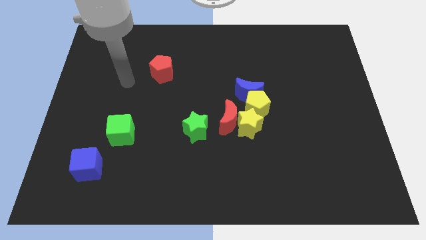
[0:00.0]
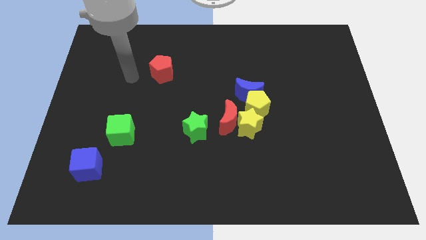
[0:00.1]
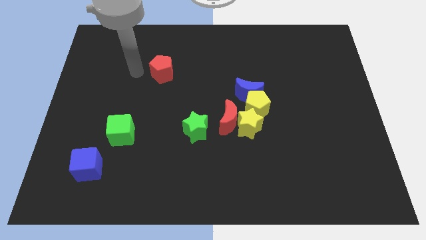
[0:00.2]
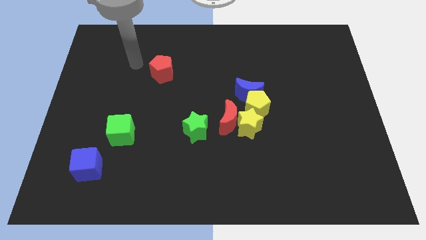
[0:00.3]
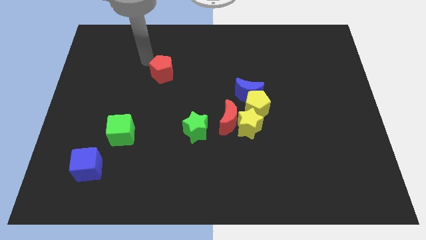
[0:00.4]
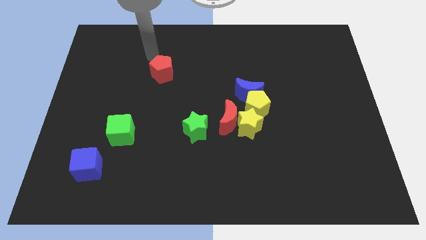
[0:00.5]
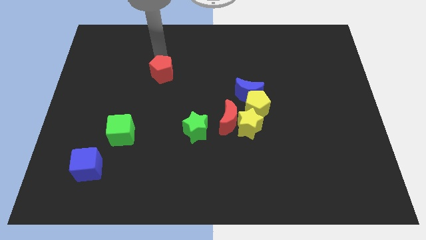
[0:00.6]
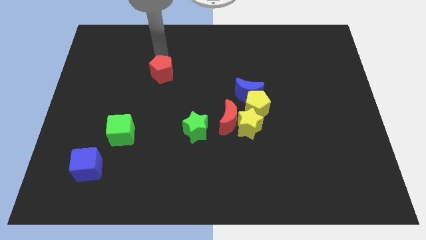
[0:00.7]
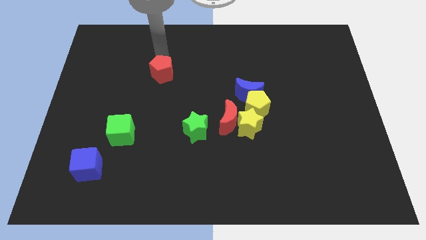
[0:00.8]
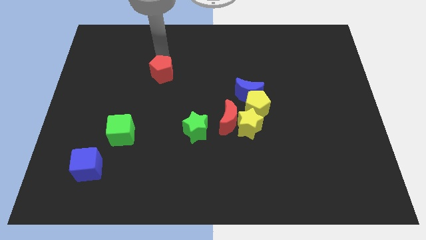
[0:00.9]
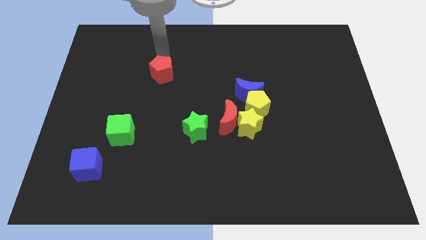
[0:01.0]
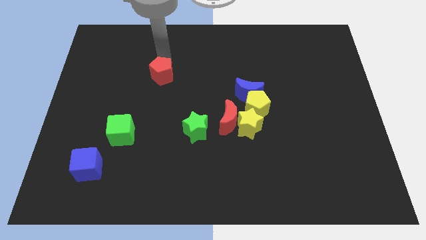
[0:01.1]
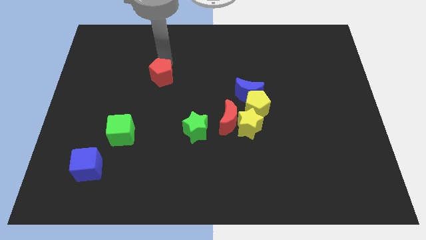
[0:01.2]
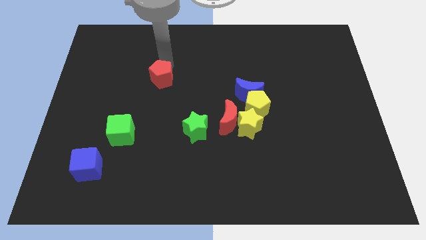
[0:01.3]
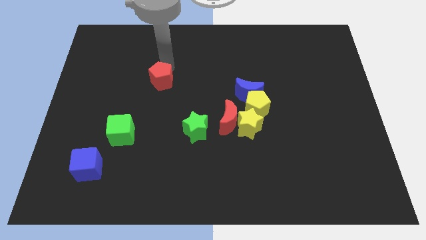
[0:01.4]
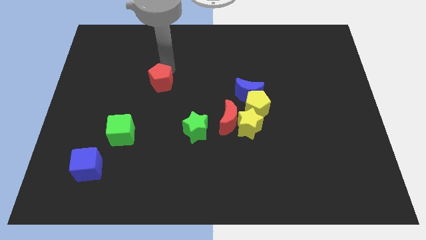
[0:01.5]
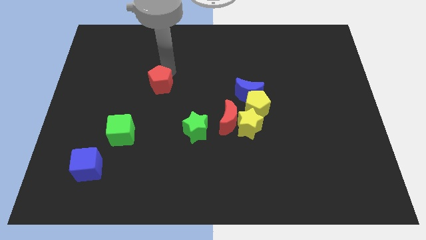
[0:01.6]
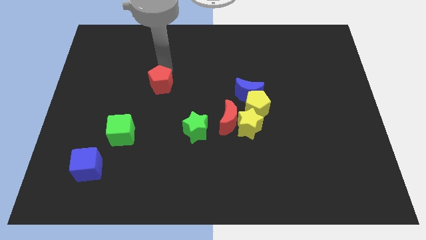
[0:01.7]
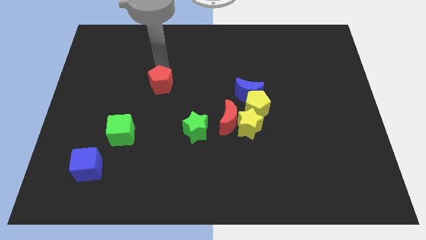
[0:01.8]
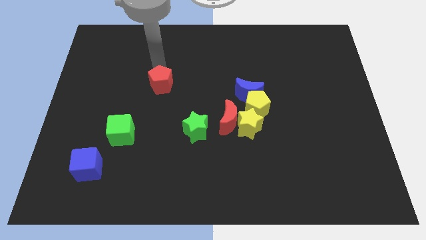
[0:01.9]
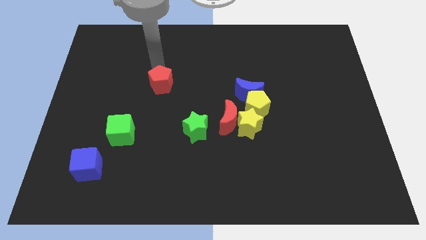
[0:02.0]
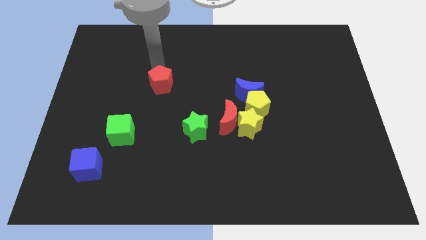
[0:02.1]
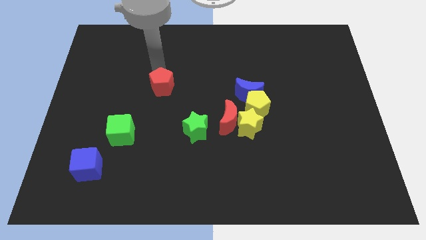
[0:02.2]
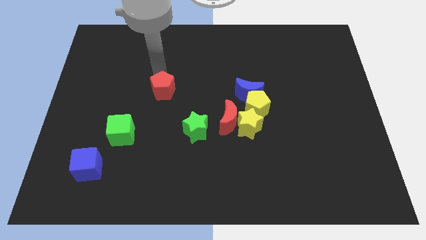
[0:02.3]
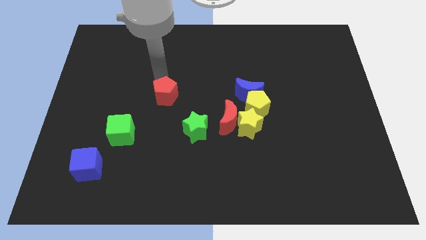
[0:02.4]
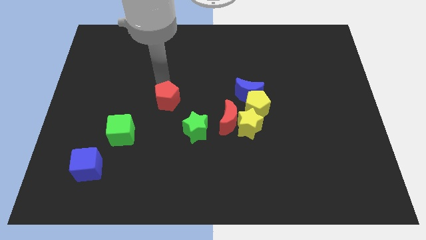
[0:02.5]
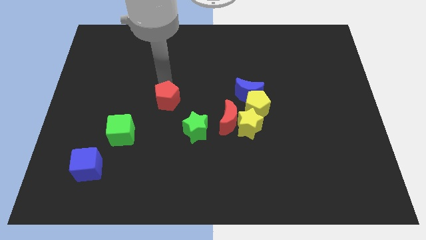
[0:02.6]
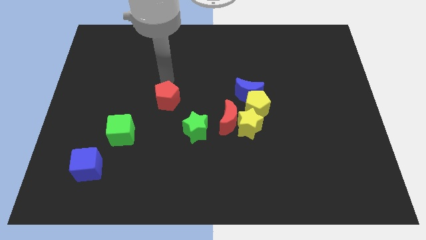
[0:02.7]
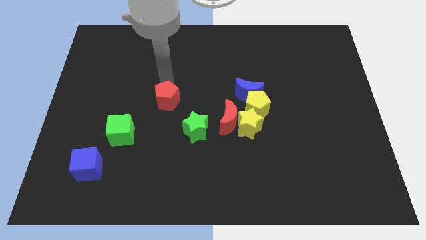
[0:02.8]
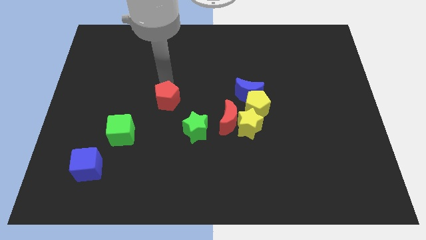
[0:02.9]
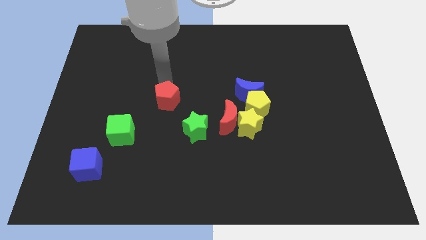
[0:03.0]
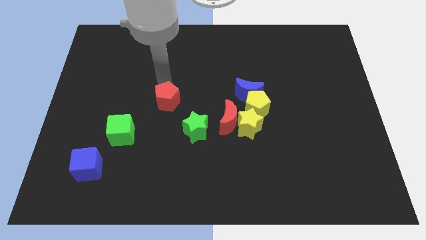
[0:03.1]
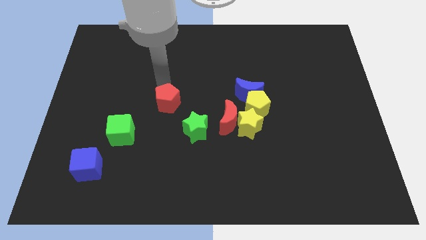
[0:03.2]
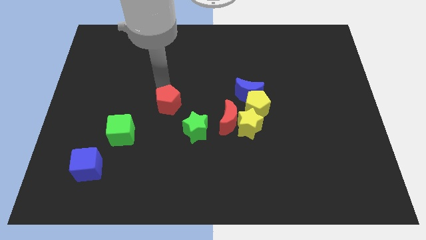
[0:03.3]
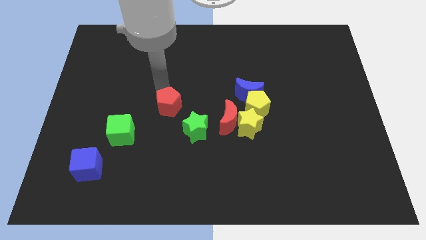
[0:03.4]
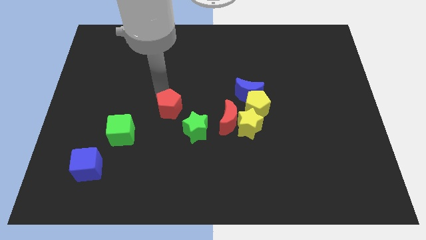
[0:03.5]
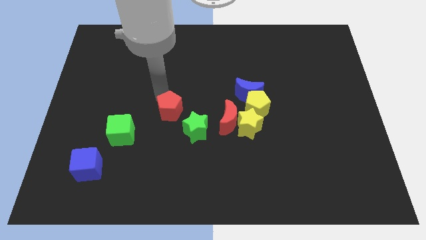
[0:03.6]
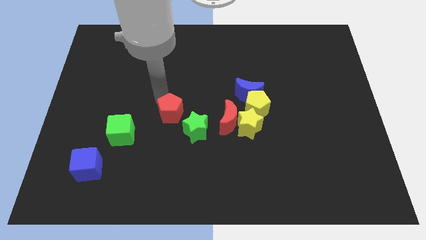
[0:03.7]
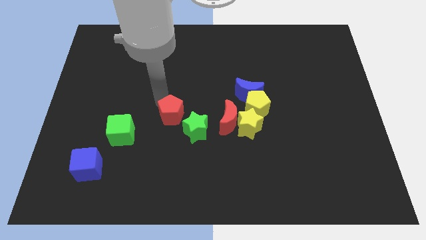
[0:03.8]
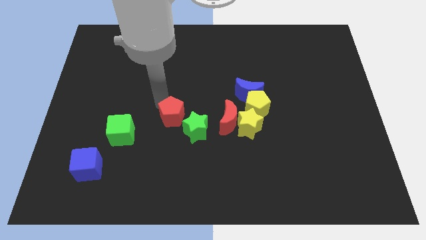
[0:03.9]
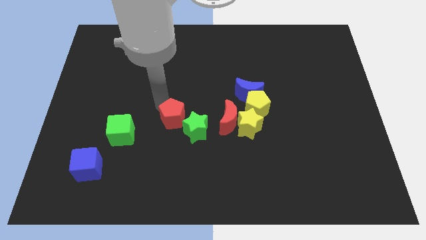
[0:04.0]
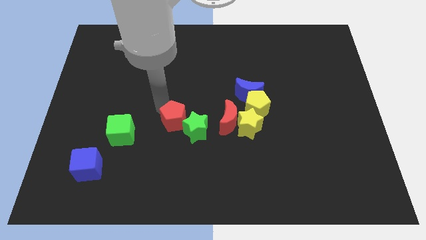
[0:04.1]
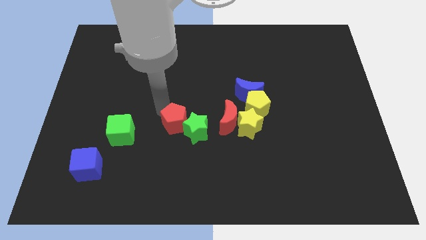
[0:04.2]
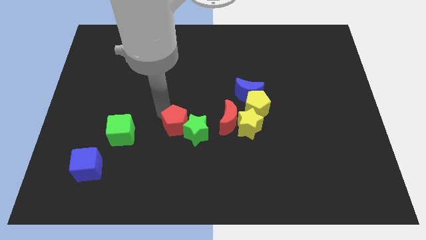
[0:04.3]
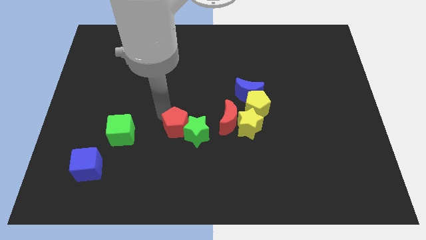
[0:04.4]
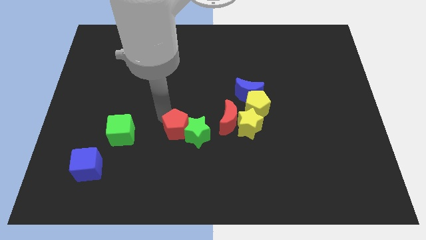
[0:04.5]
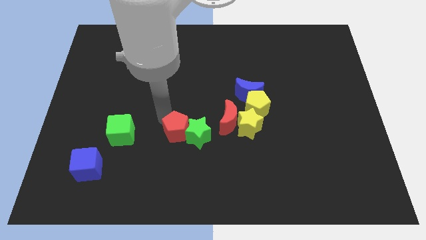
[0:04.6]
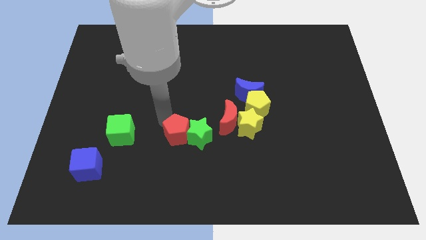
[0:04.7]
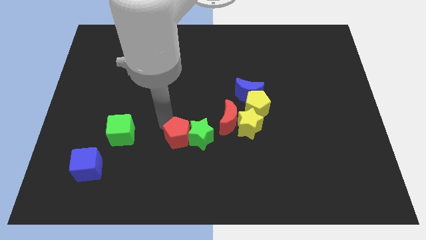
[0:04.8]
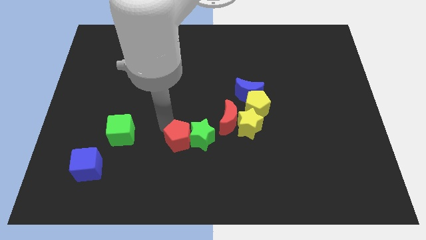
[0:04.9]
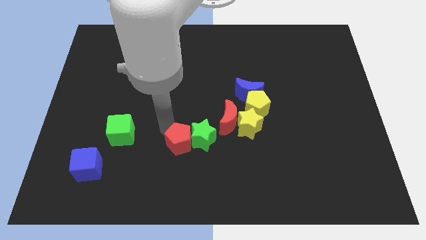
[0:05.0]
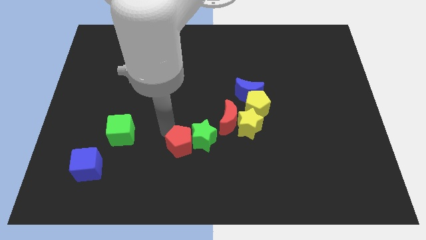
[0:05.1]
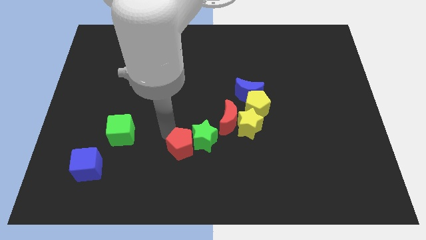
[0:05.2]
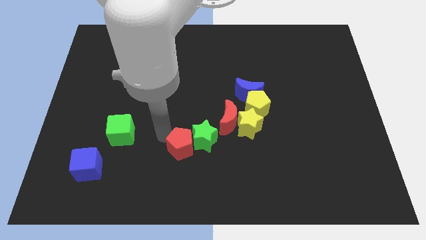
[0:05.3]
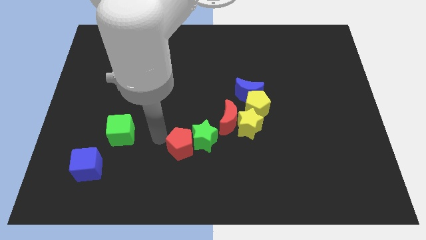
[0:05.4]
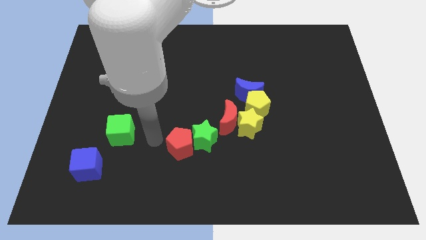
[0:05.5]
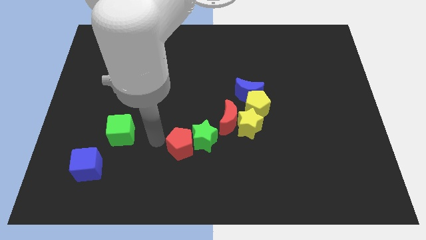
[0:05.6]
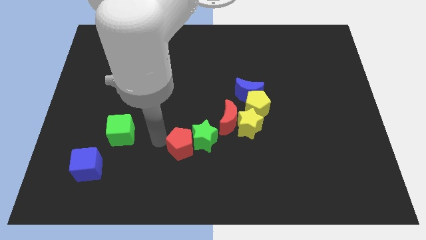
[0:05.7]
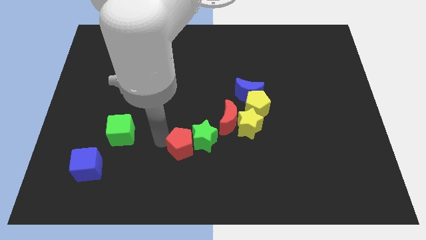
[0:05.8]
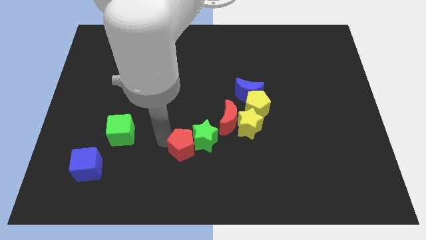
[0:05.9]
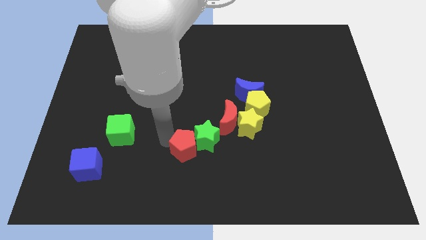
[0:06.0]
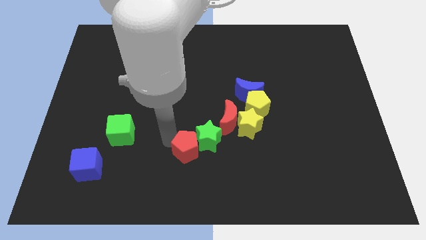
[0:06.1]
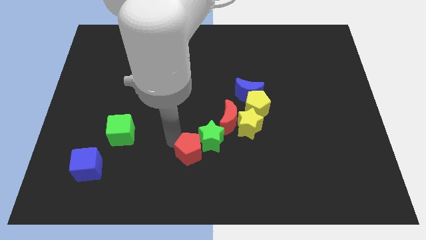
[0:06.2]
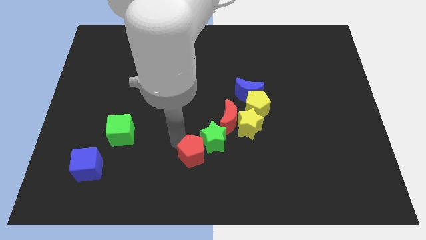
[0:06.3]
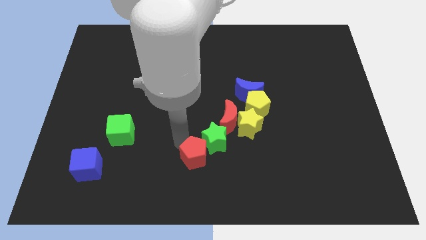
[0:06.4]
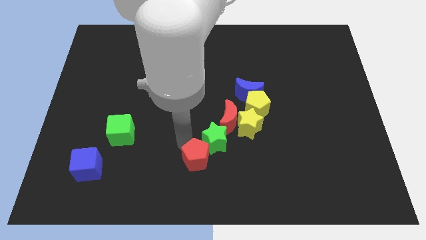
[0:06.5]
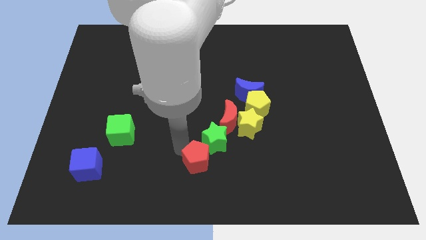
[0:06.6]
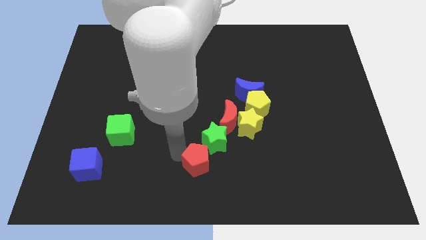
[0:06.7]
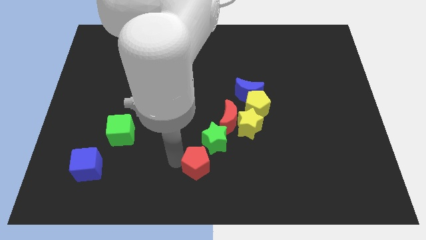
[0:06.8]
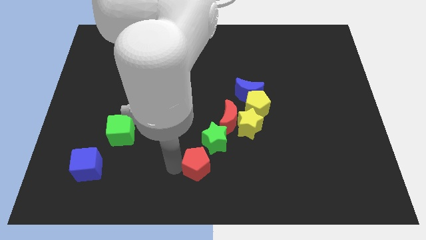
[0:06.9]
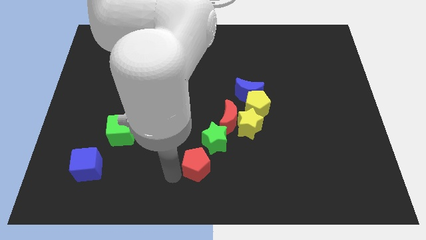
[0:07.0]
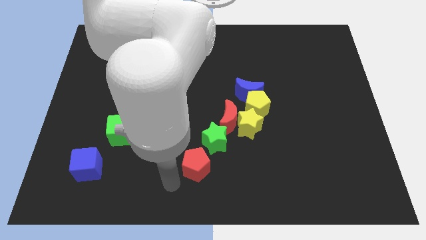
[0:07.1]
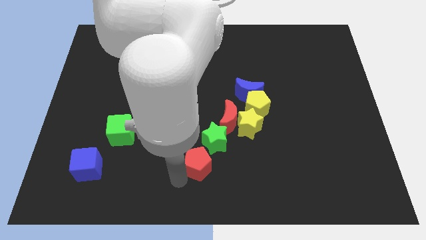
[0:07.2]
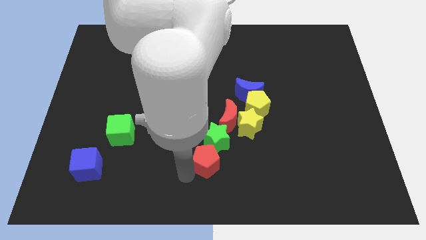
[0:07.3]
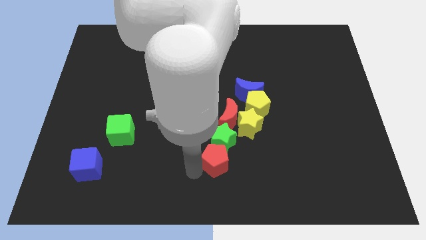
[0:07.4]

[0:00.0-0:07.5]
put the red pentagon diagonally down and to the left of the yellow star

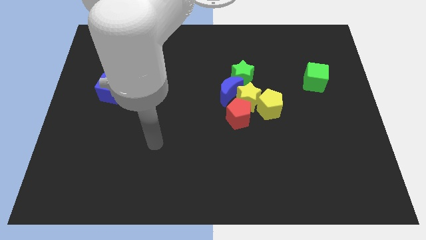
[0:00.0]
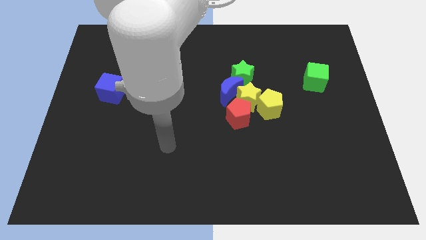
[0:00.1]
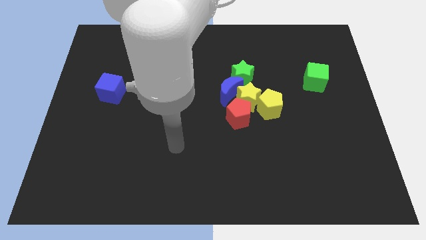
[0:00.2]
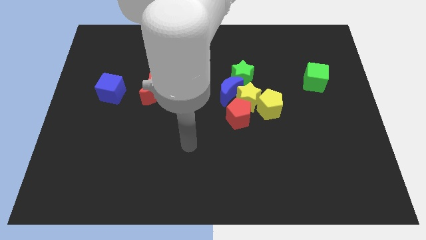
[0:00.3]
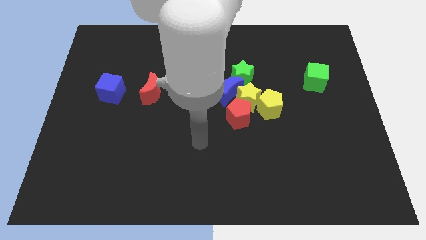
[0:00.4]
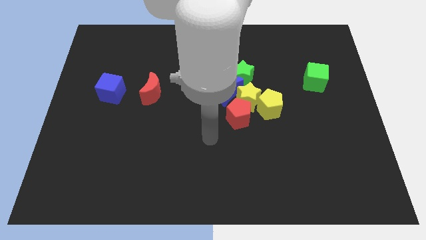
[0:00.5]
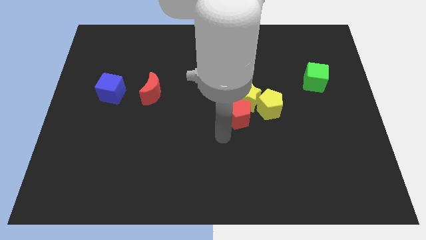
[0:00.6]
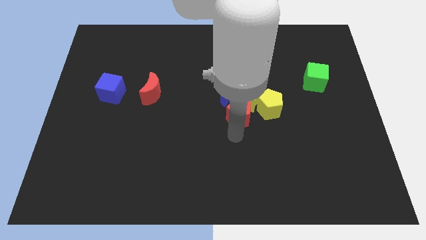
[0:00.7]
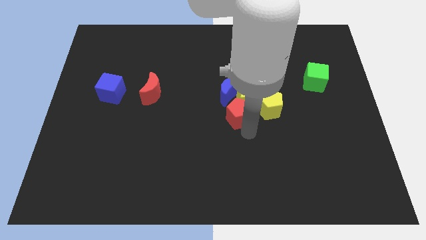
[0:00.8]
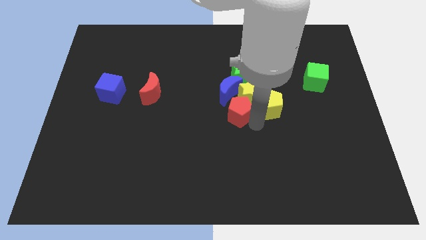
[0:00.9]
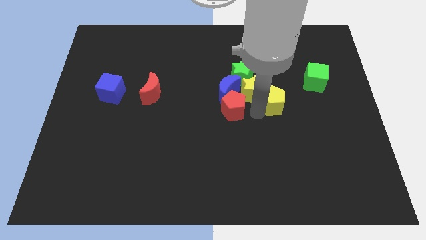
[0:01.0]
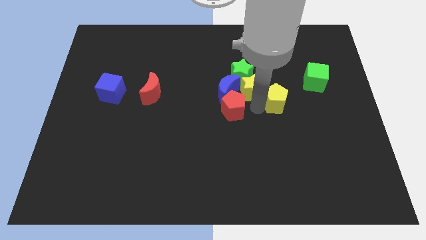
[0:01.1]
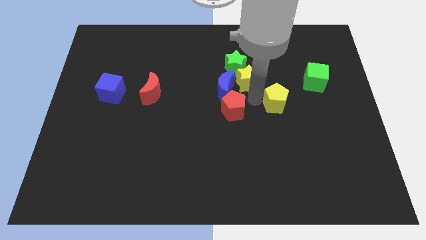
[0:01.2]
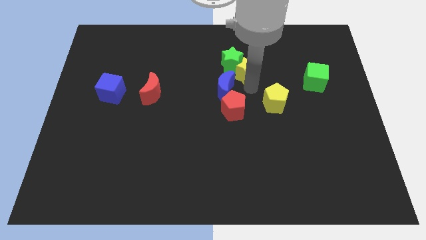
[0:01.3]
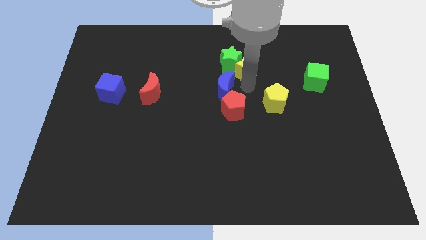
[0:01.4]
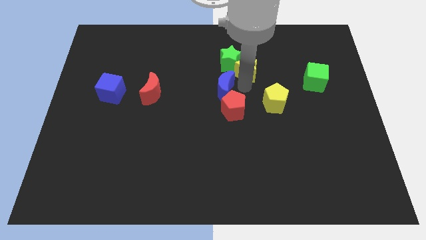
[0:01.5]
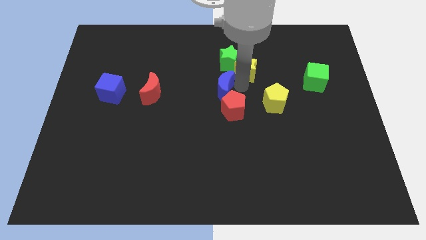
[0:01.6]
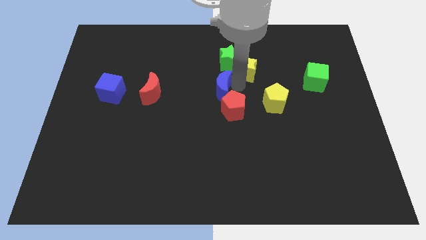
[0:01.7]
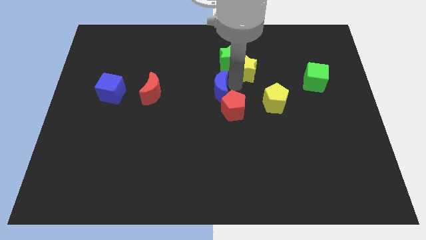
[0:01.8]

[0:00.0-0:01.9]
push the blue moon to the right side of the red moon
